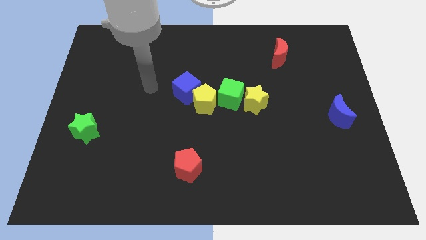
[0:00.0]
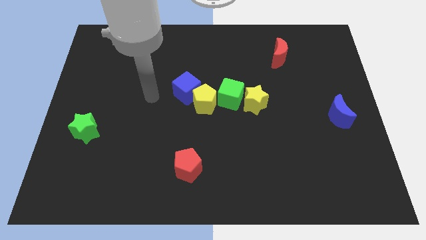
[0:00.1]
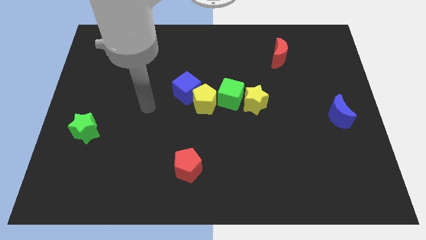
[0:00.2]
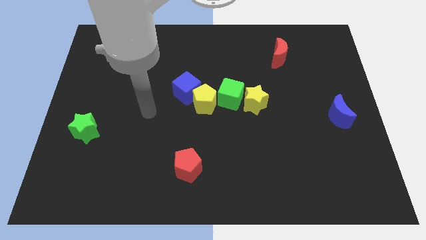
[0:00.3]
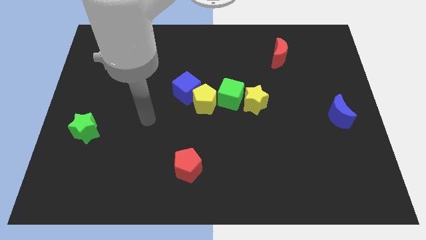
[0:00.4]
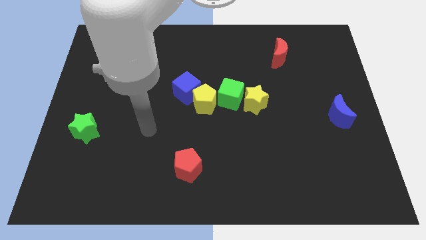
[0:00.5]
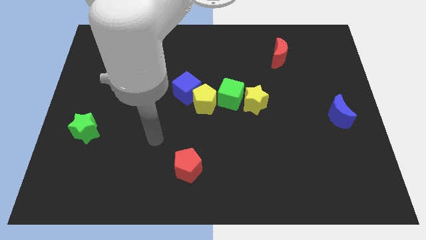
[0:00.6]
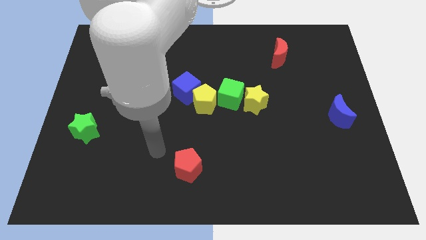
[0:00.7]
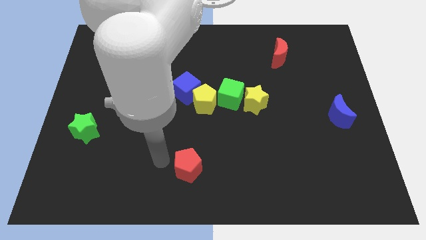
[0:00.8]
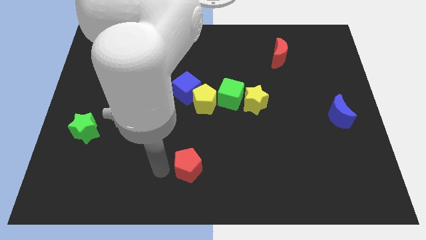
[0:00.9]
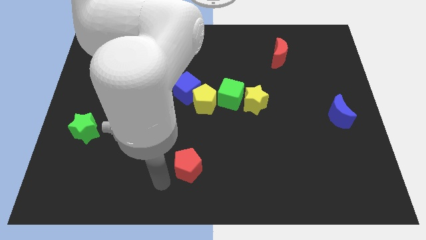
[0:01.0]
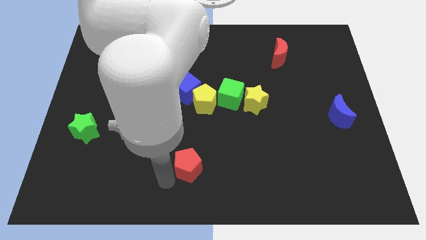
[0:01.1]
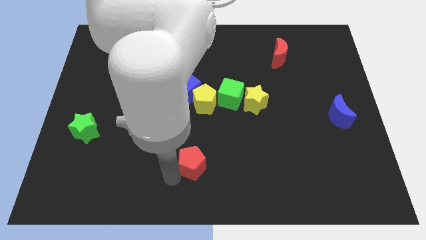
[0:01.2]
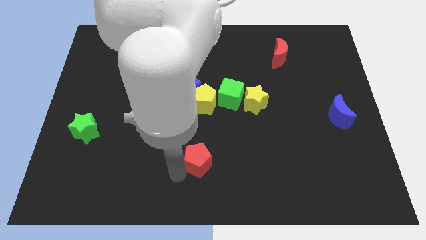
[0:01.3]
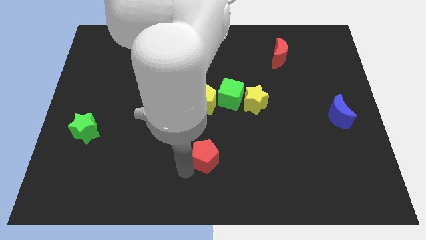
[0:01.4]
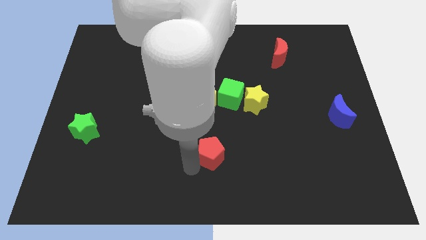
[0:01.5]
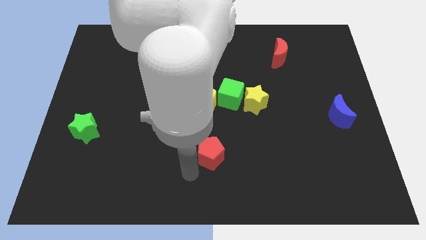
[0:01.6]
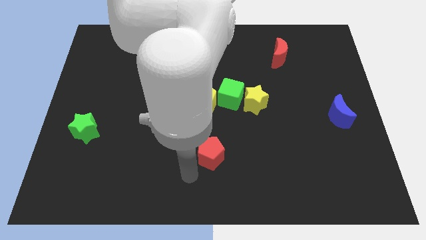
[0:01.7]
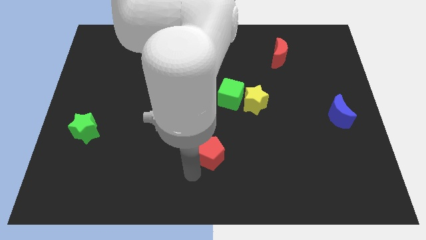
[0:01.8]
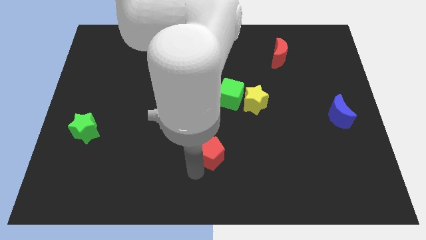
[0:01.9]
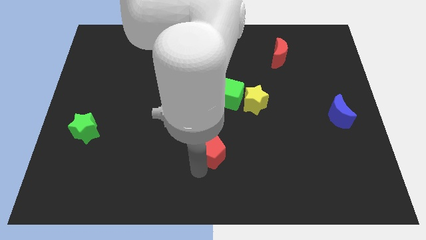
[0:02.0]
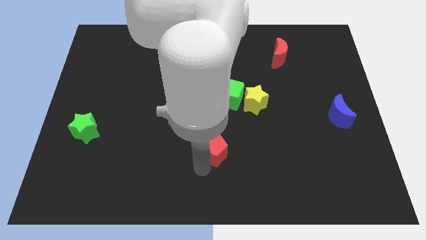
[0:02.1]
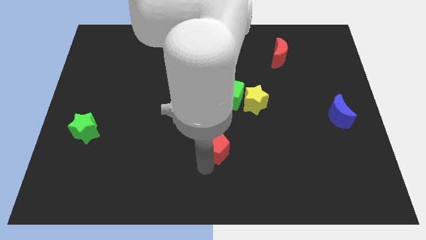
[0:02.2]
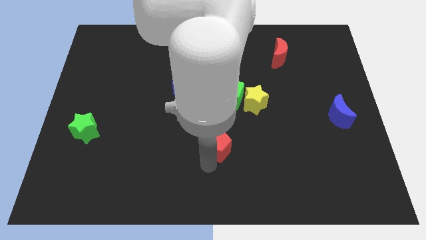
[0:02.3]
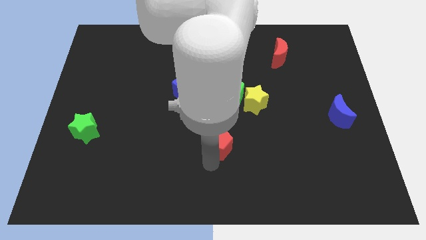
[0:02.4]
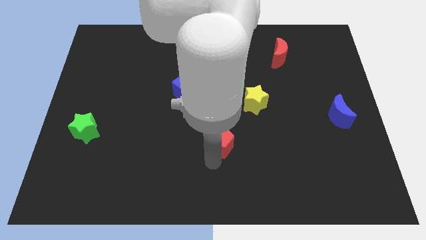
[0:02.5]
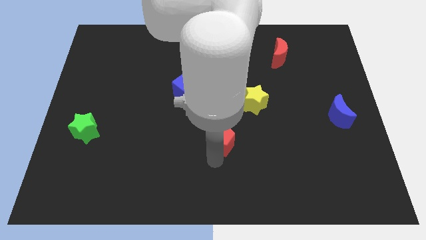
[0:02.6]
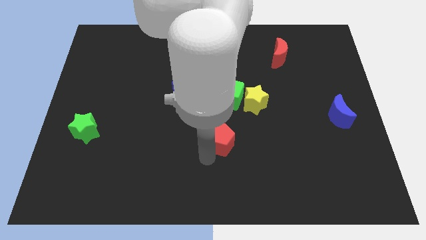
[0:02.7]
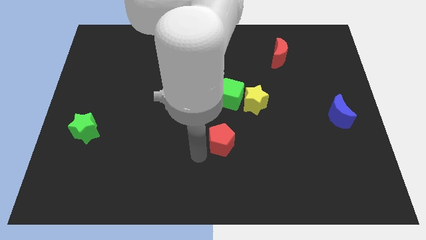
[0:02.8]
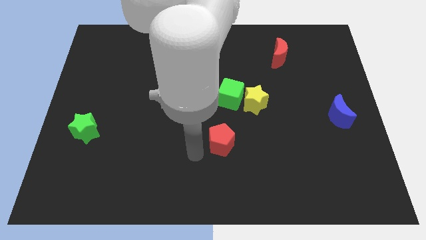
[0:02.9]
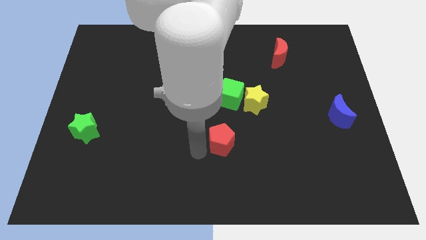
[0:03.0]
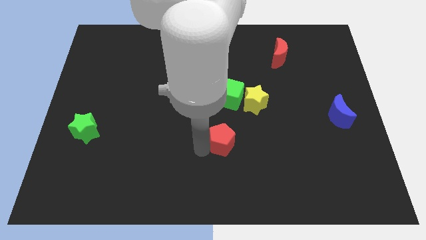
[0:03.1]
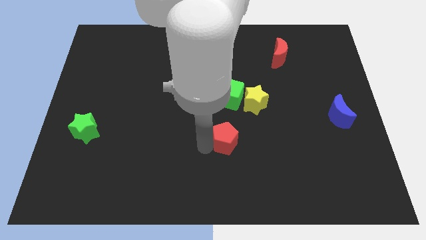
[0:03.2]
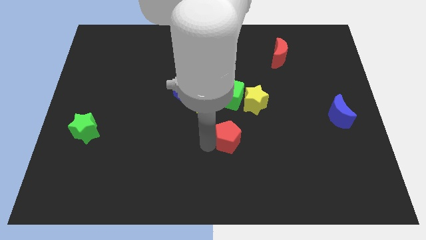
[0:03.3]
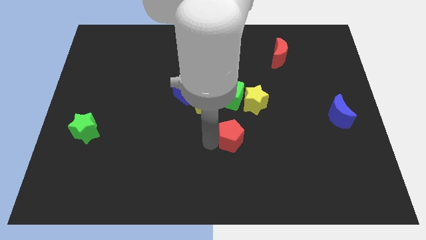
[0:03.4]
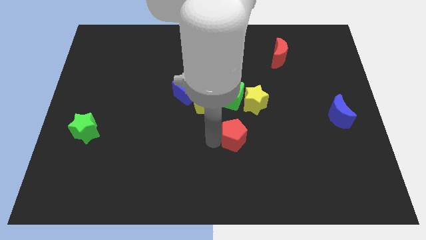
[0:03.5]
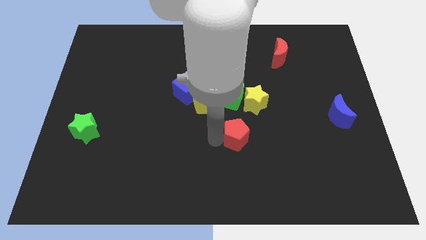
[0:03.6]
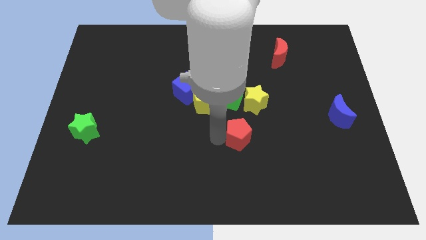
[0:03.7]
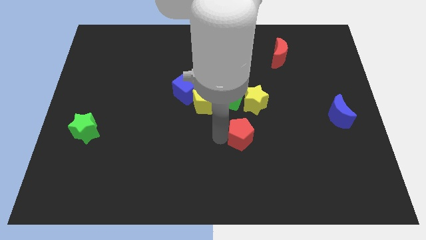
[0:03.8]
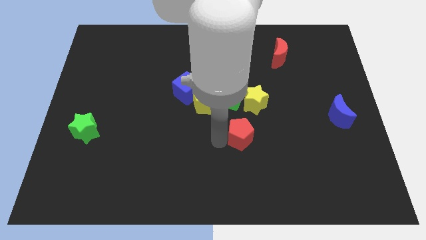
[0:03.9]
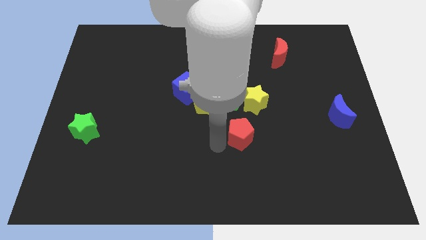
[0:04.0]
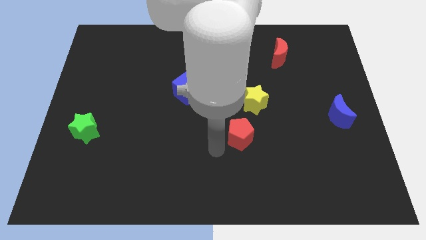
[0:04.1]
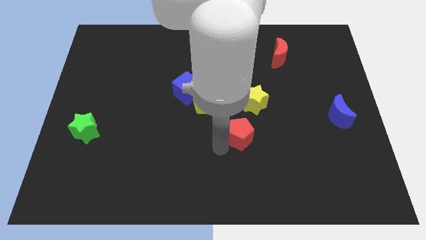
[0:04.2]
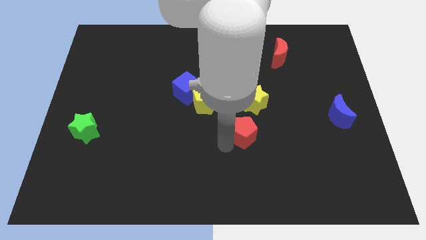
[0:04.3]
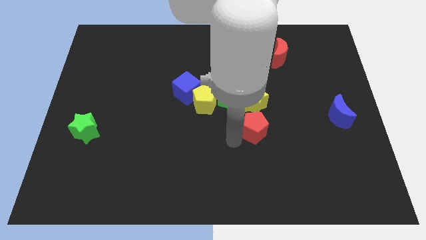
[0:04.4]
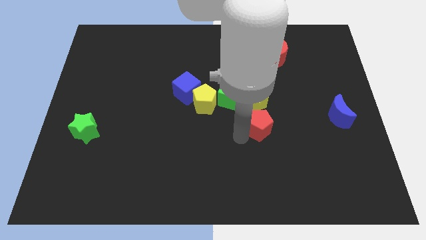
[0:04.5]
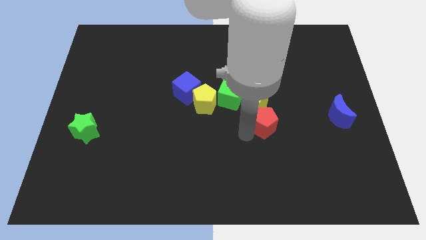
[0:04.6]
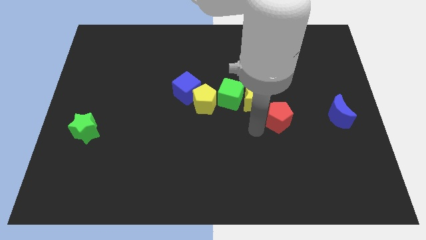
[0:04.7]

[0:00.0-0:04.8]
put the red pentagon to the right side of the yellow star

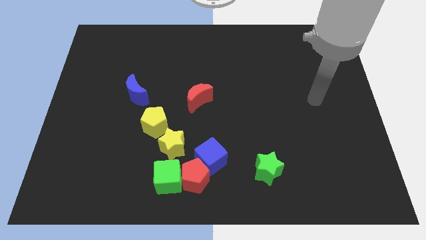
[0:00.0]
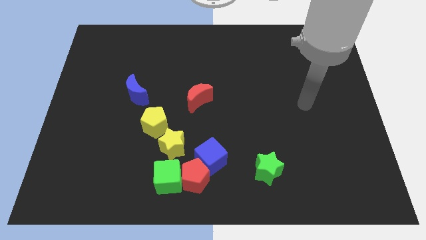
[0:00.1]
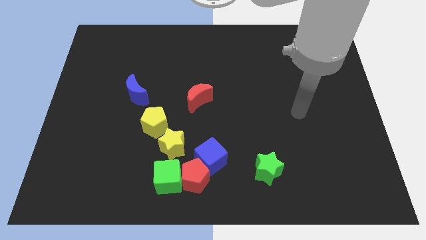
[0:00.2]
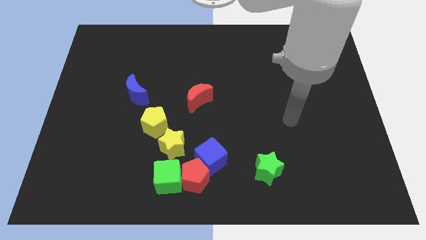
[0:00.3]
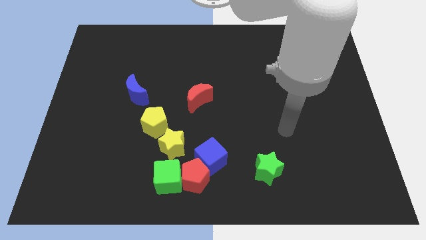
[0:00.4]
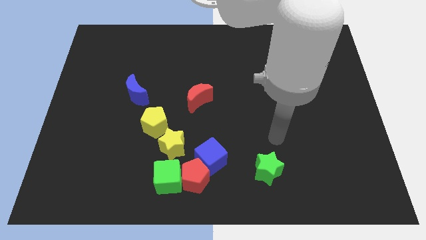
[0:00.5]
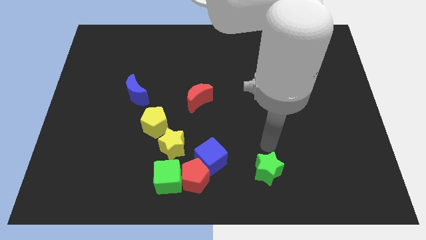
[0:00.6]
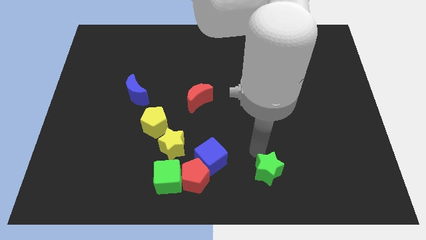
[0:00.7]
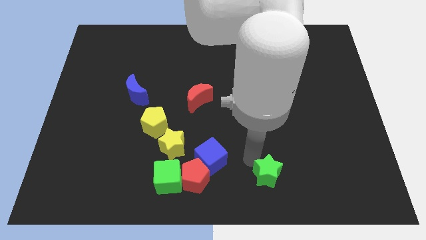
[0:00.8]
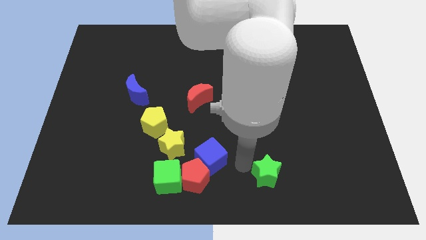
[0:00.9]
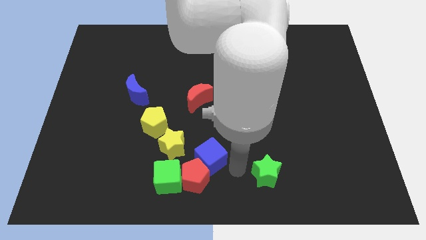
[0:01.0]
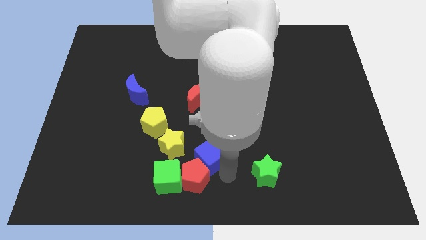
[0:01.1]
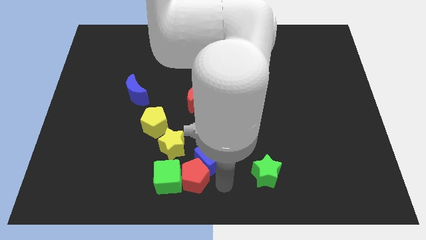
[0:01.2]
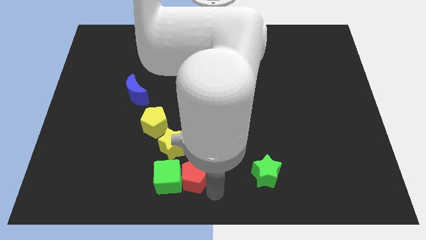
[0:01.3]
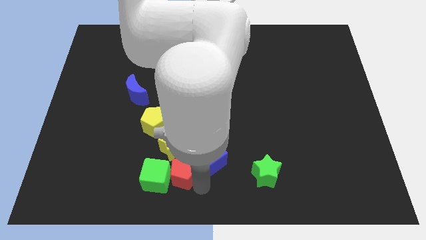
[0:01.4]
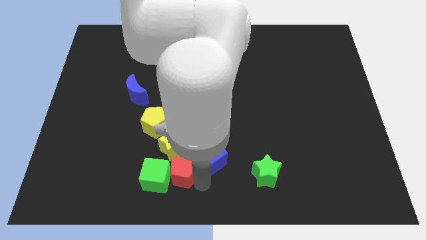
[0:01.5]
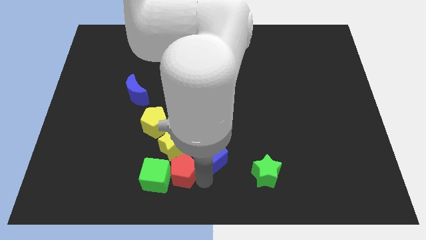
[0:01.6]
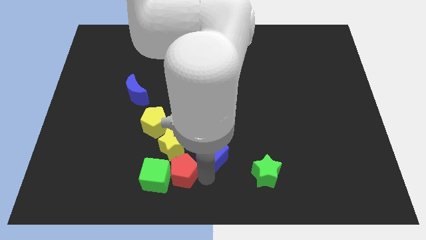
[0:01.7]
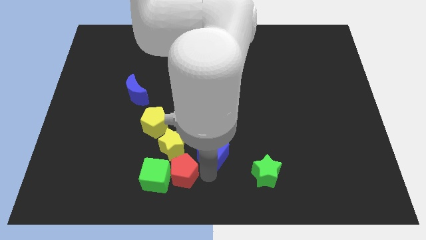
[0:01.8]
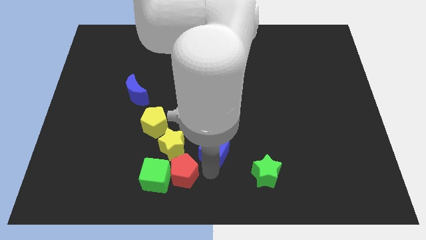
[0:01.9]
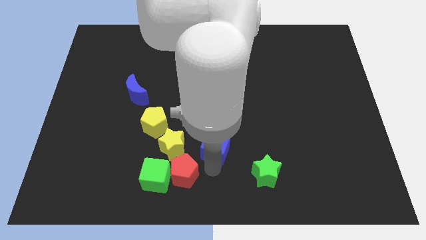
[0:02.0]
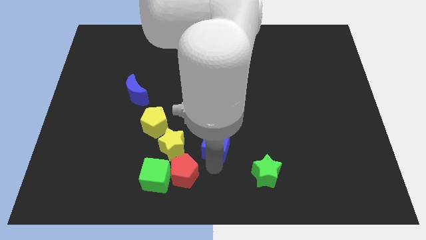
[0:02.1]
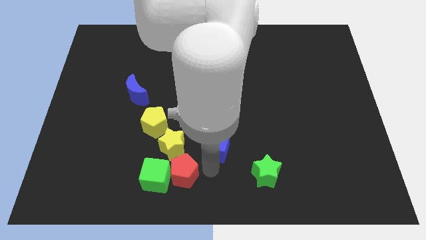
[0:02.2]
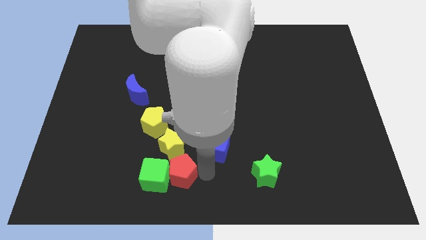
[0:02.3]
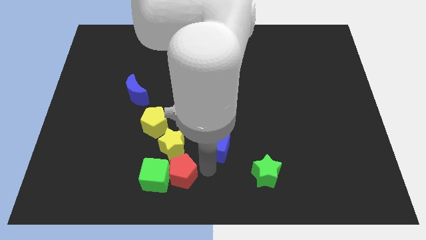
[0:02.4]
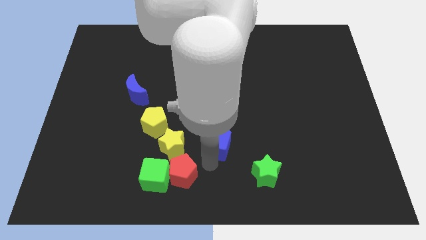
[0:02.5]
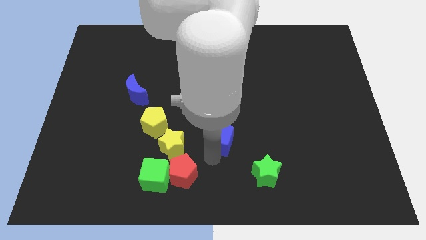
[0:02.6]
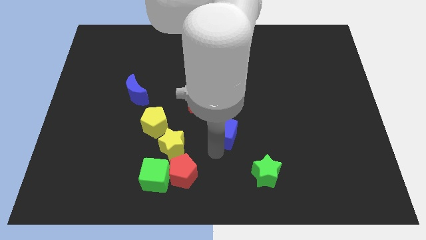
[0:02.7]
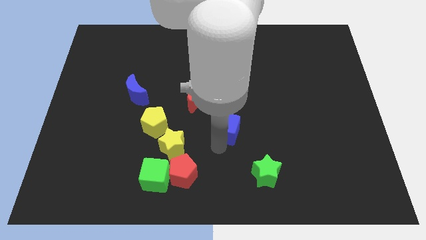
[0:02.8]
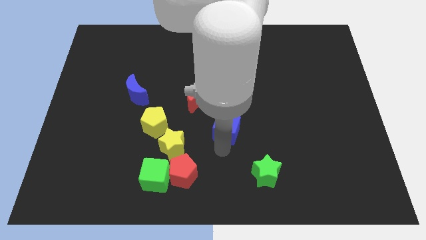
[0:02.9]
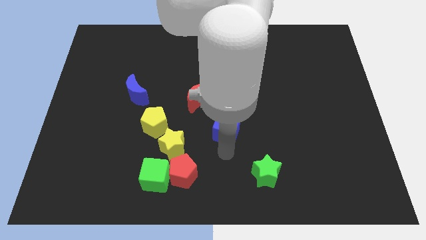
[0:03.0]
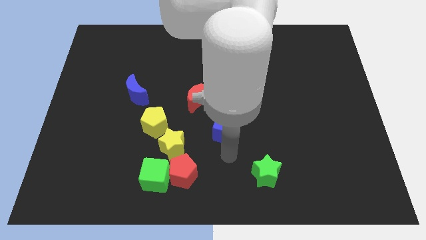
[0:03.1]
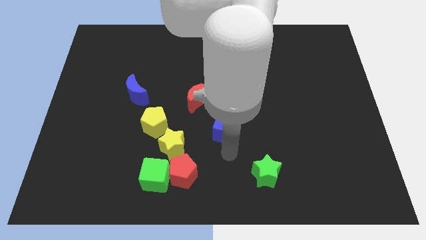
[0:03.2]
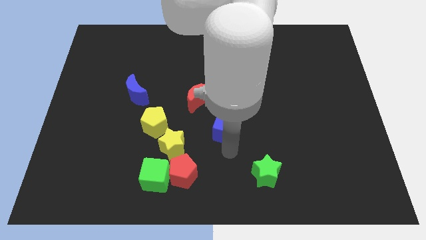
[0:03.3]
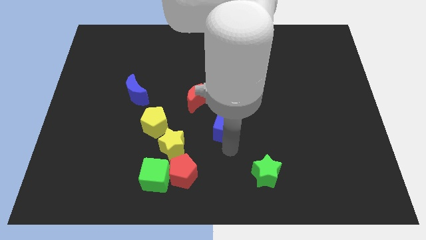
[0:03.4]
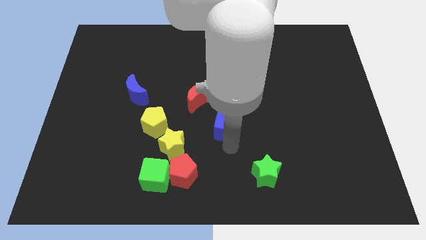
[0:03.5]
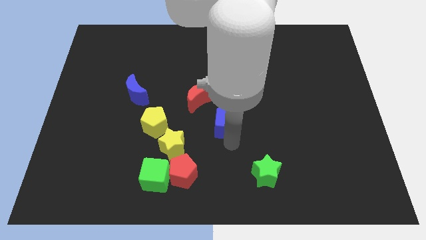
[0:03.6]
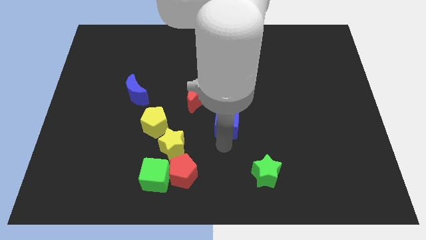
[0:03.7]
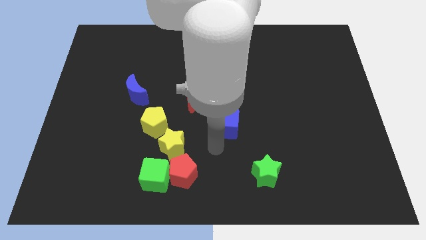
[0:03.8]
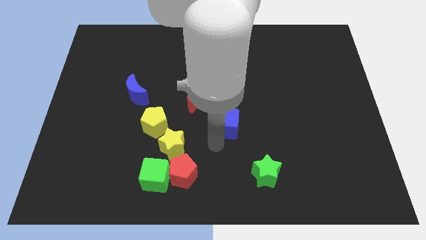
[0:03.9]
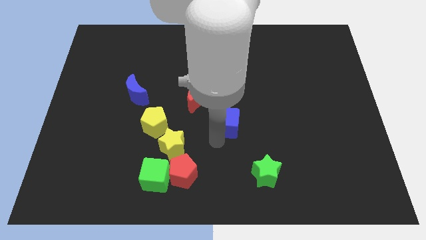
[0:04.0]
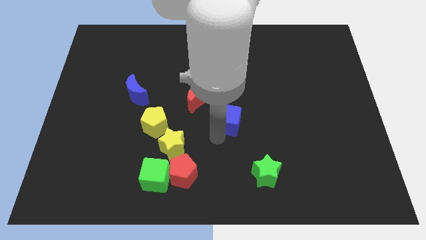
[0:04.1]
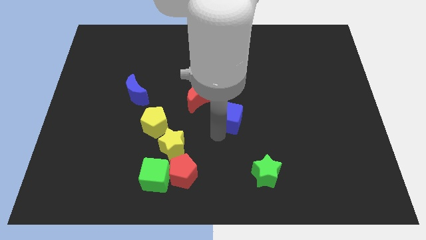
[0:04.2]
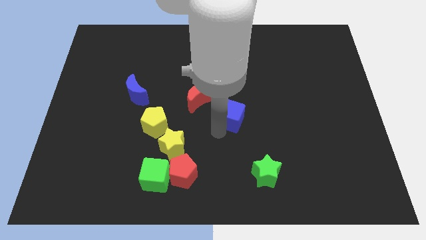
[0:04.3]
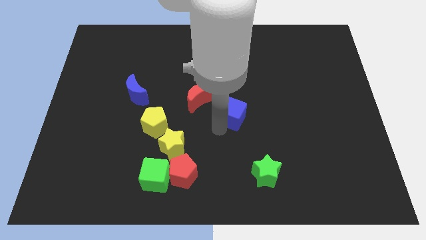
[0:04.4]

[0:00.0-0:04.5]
slide the blue cube to the right side of the red moon
